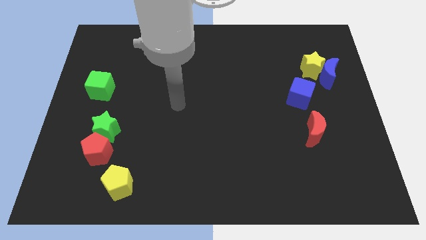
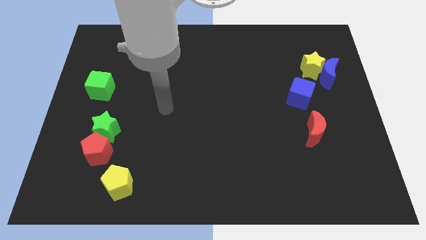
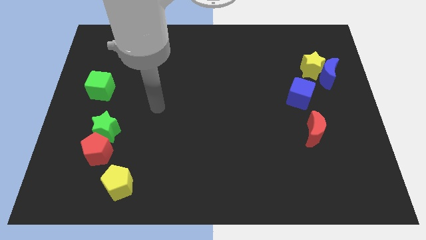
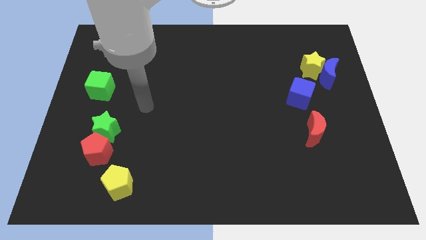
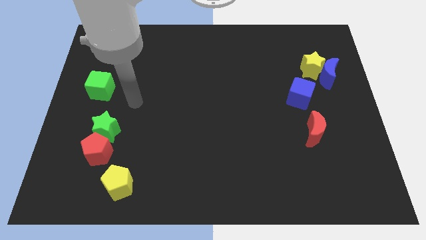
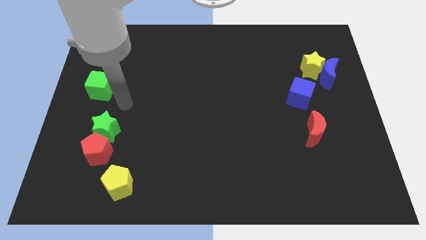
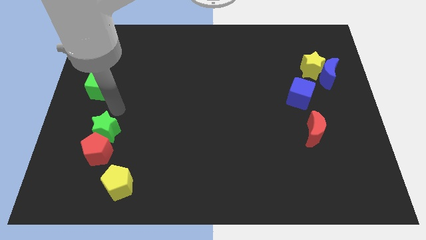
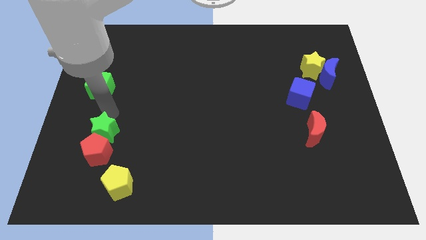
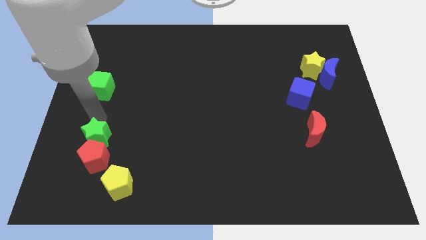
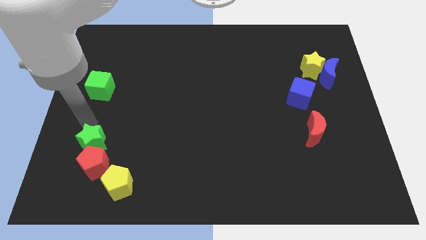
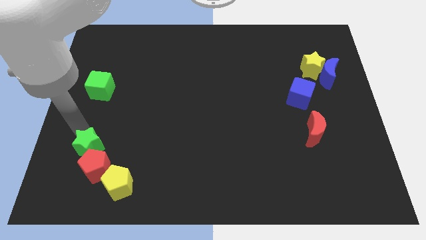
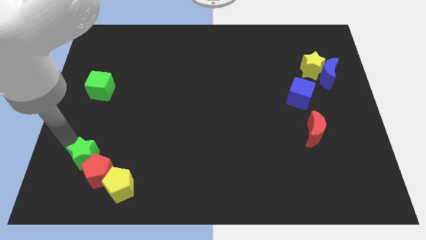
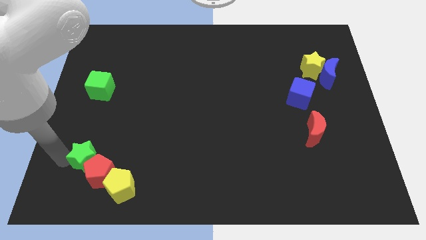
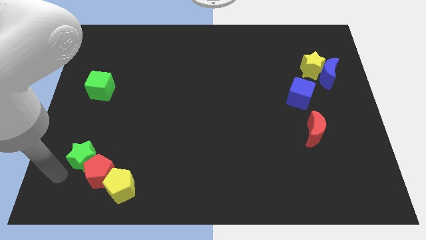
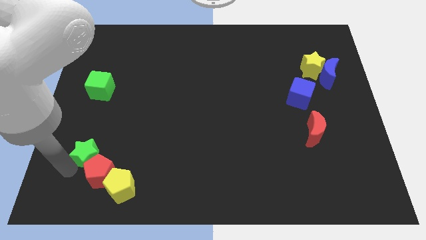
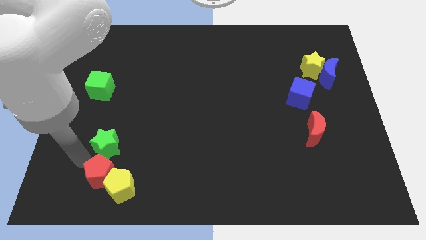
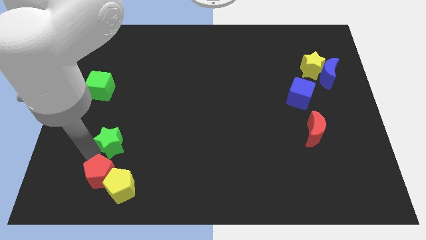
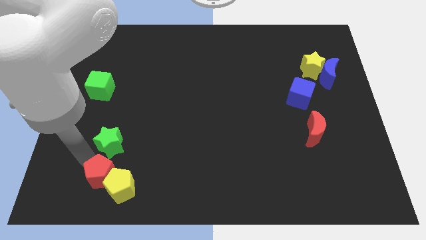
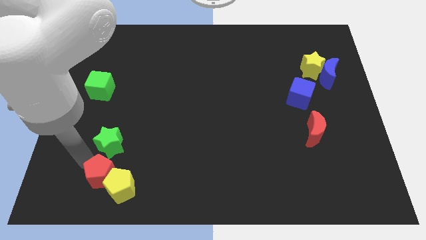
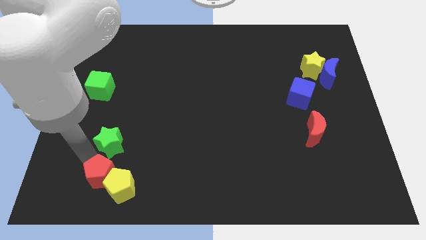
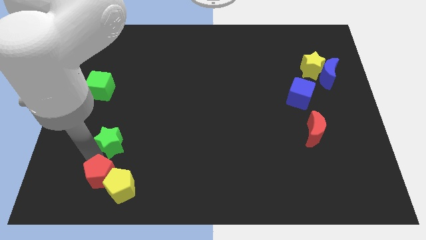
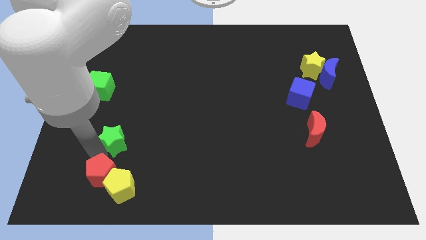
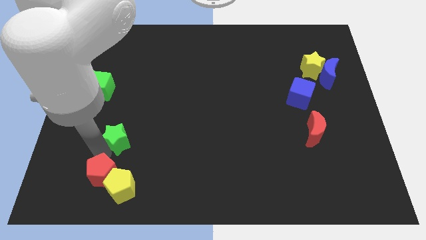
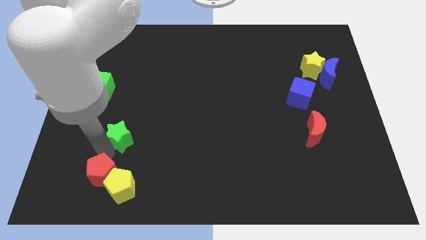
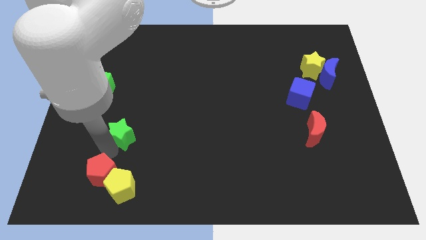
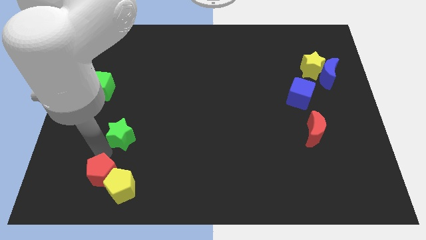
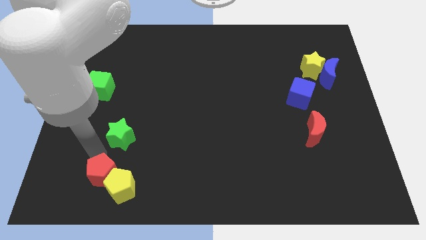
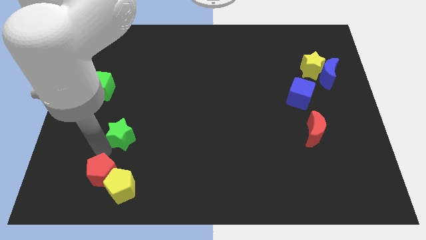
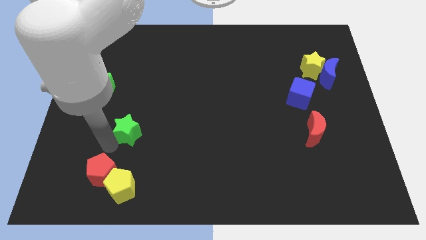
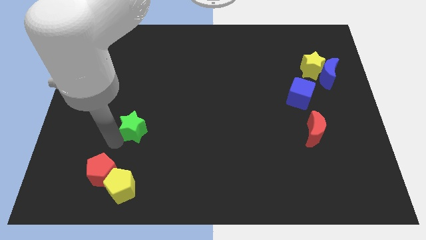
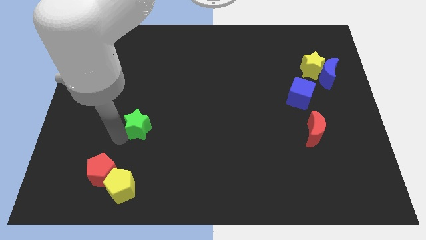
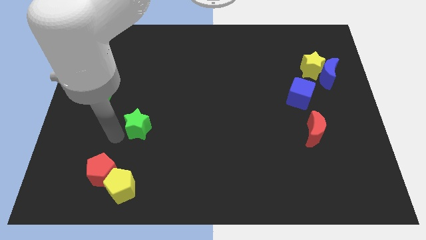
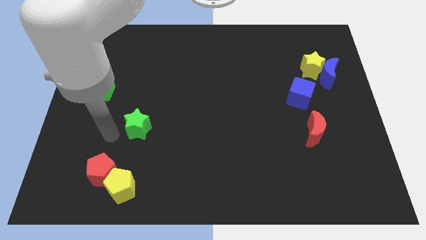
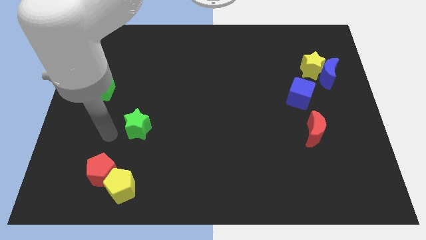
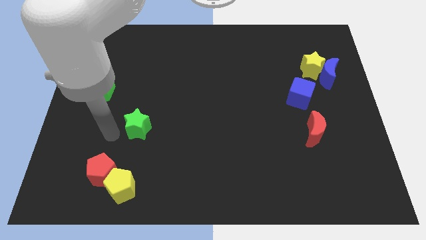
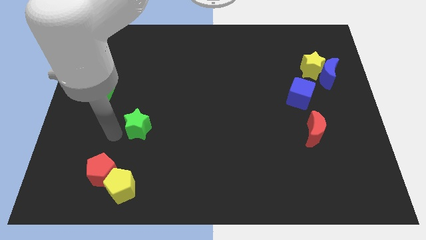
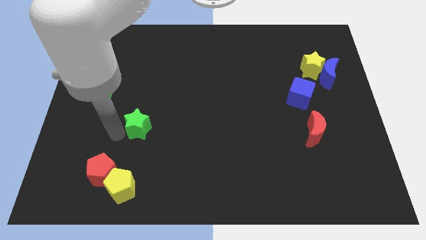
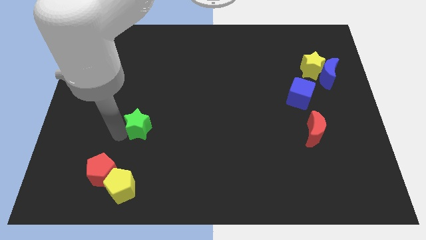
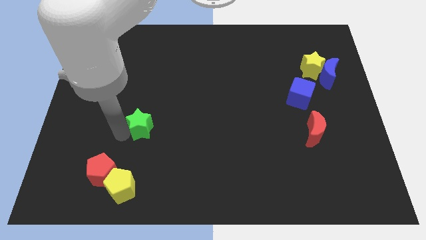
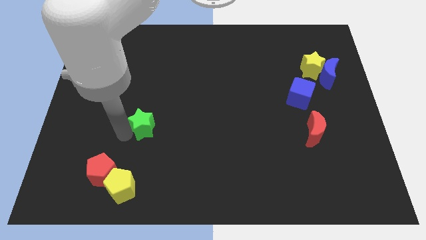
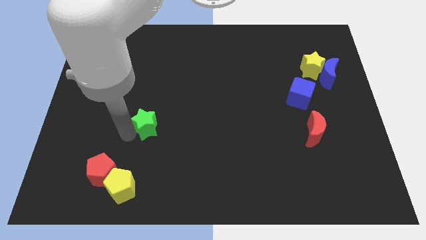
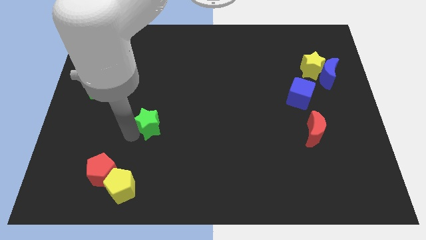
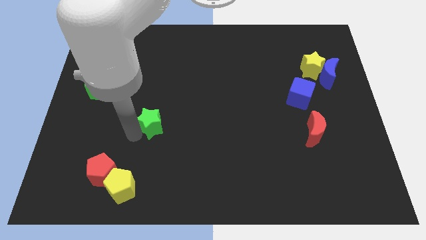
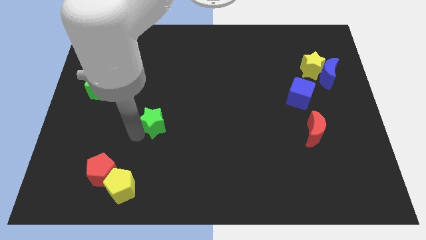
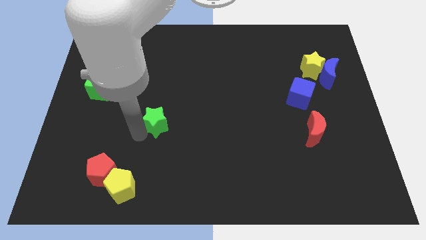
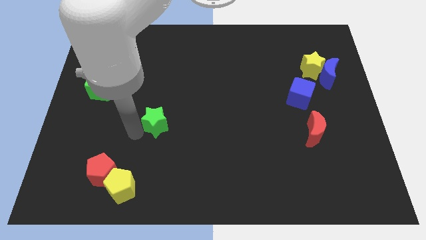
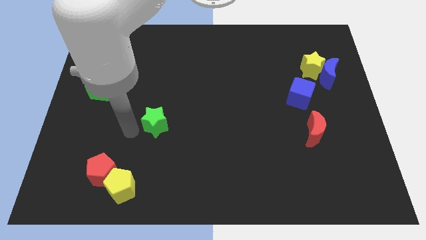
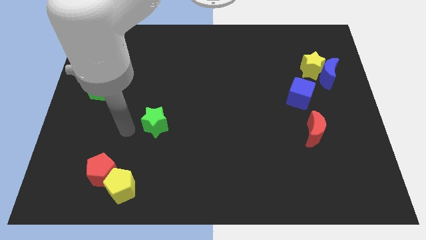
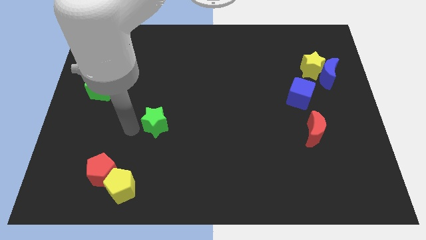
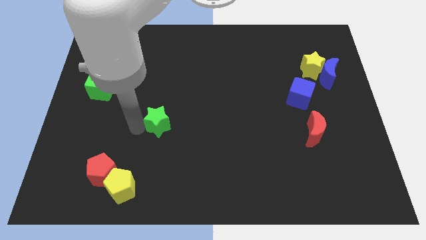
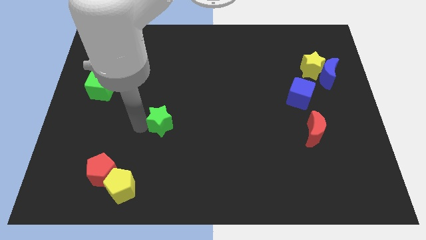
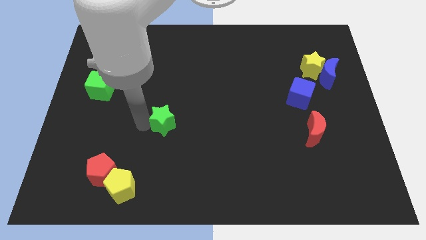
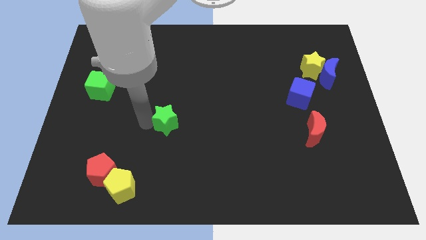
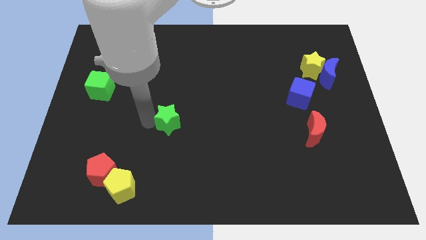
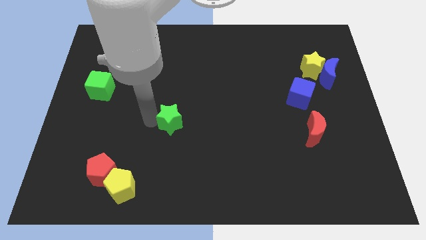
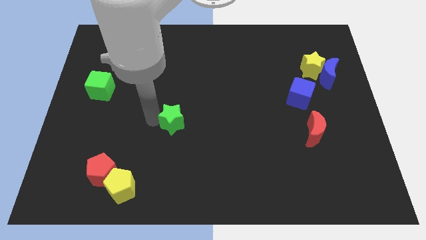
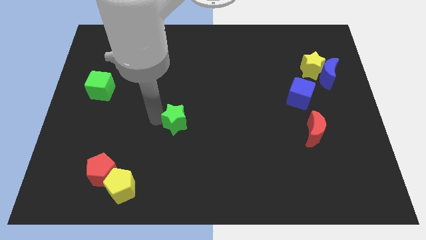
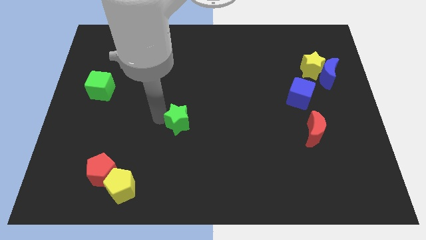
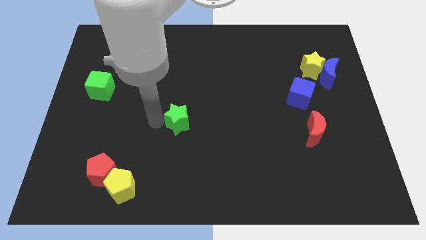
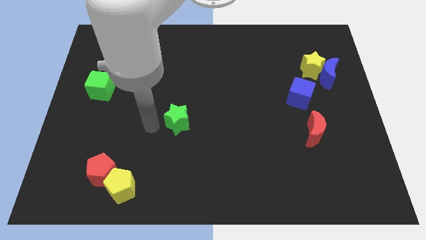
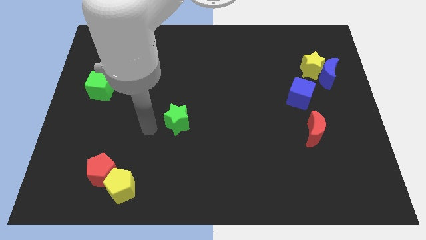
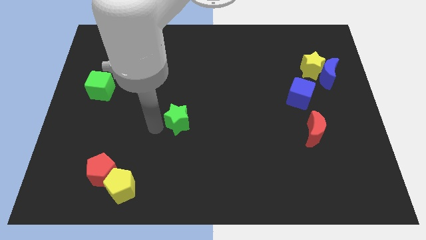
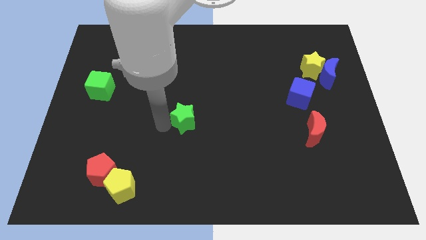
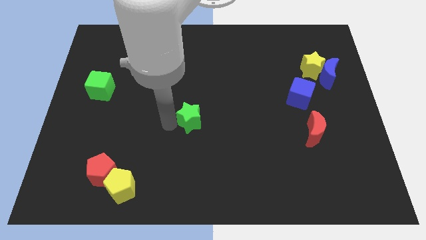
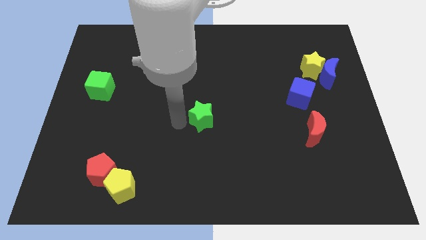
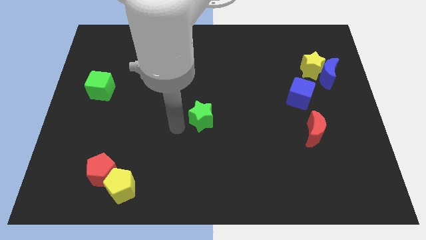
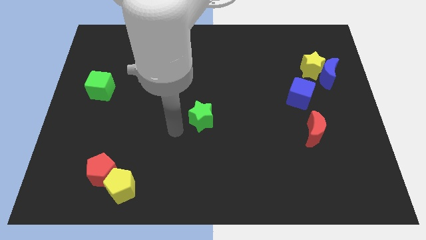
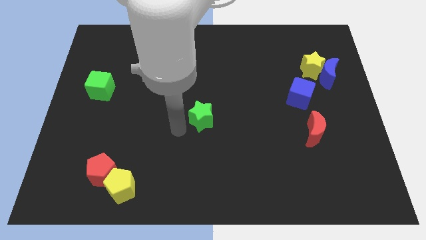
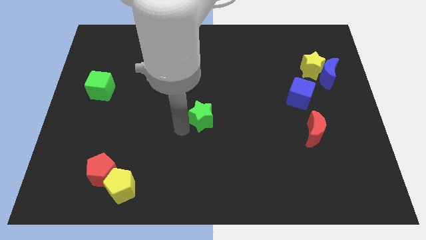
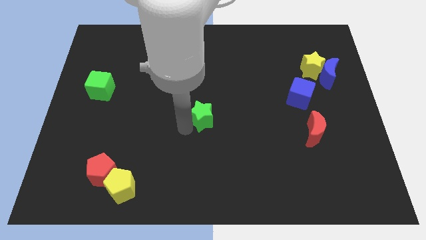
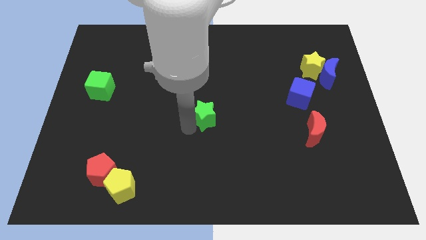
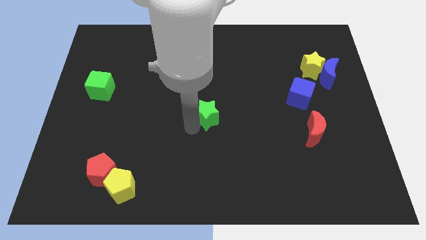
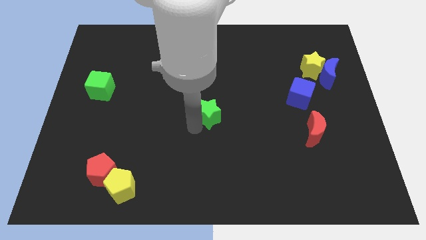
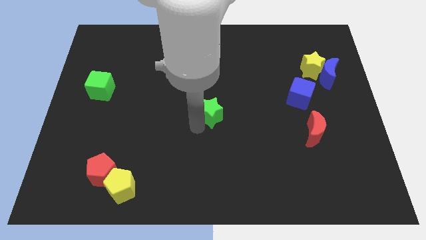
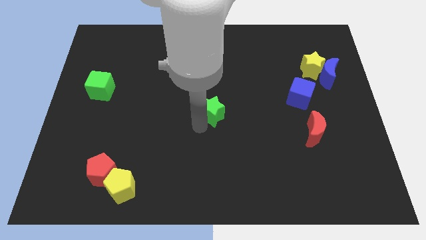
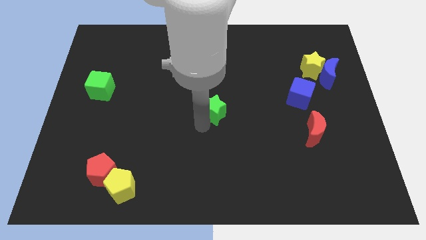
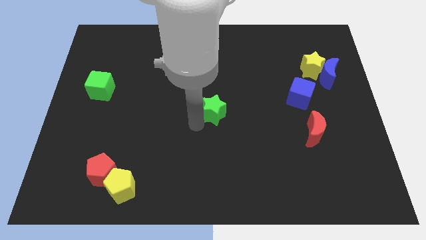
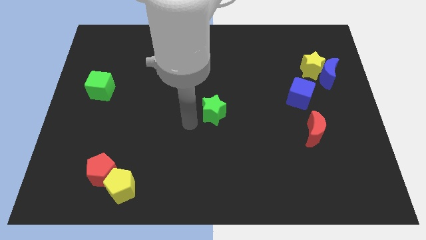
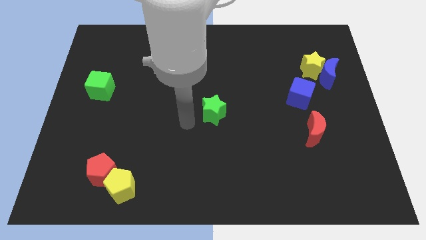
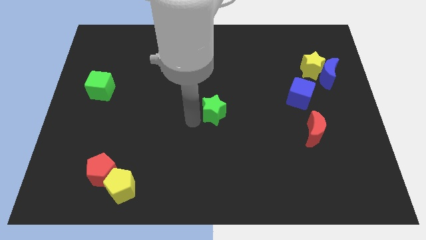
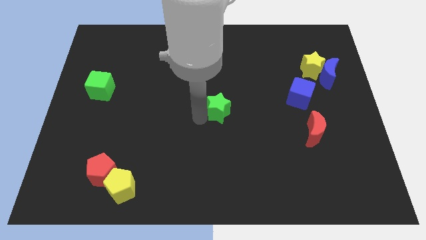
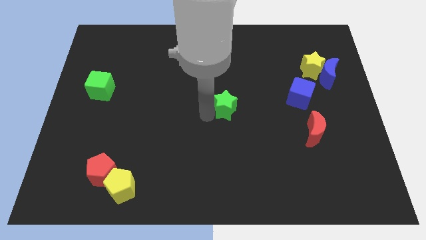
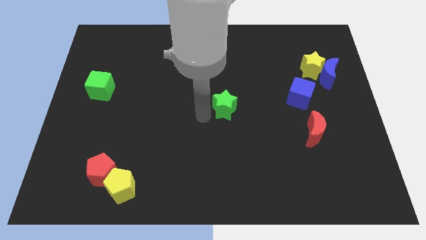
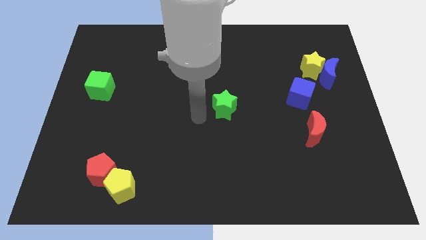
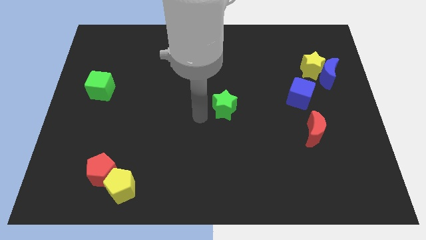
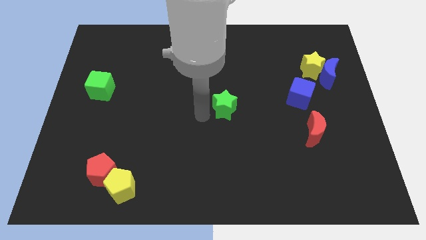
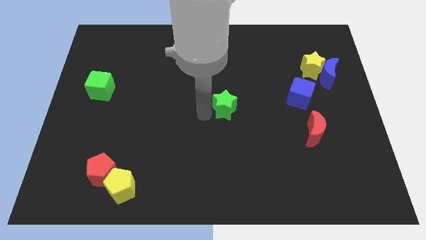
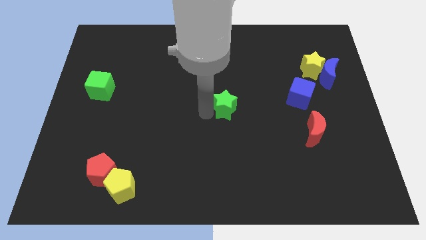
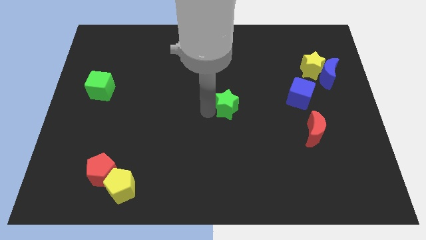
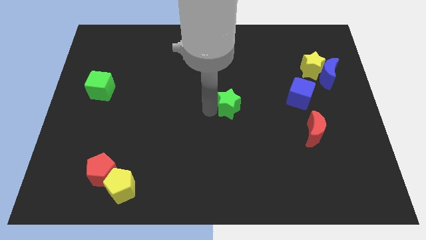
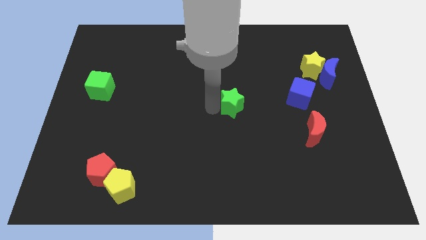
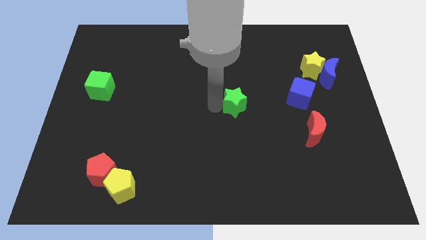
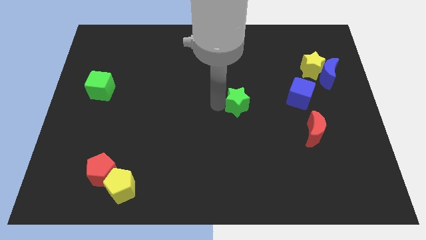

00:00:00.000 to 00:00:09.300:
put the green star left of the blue cube
